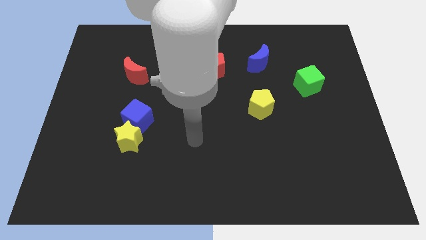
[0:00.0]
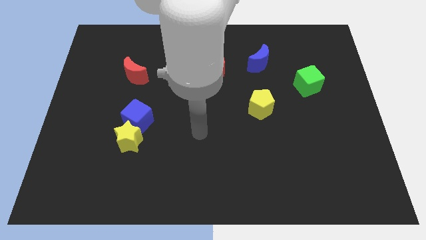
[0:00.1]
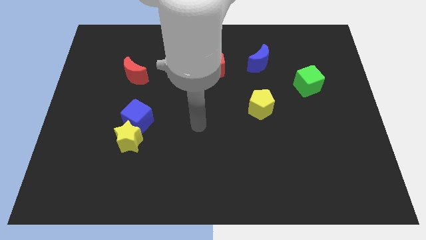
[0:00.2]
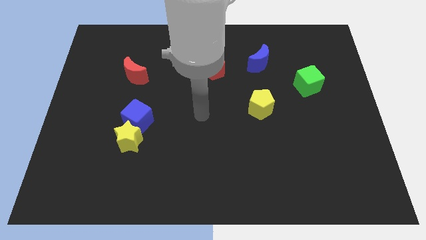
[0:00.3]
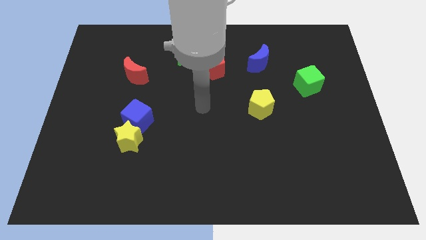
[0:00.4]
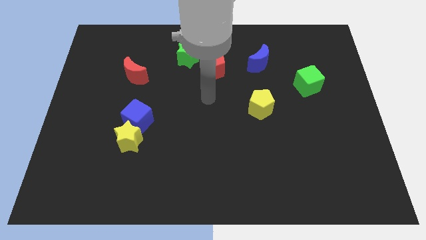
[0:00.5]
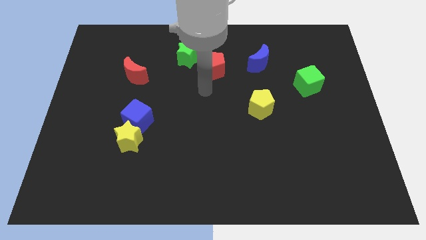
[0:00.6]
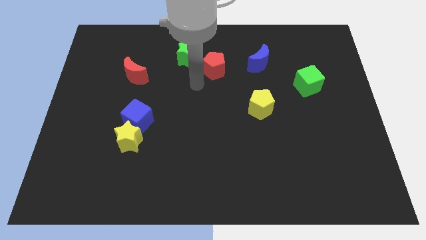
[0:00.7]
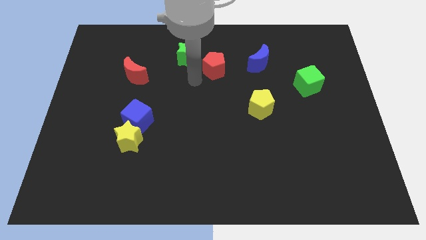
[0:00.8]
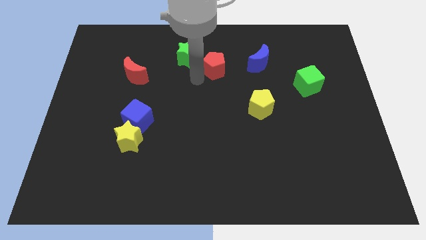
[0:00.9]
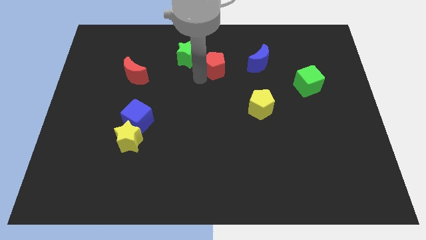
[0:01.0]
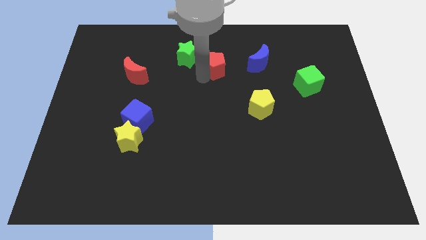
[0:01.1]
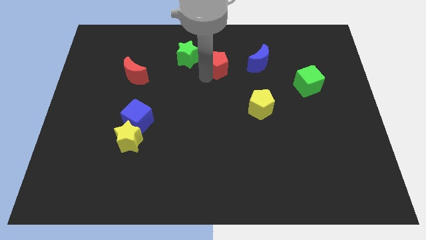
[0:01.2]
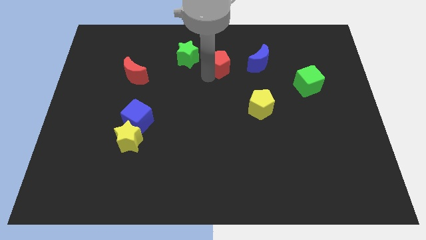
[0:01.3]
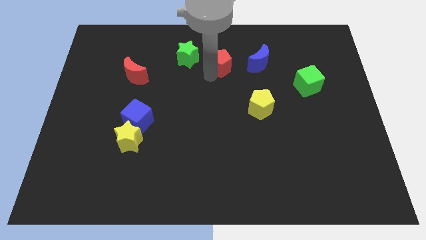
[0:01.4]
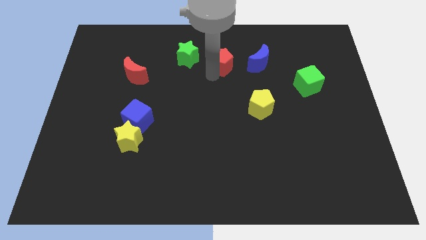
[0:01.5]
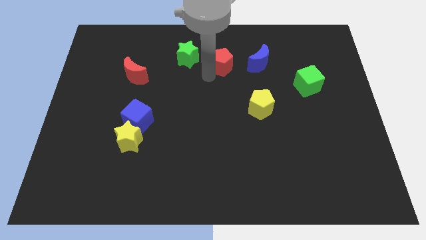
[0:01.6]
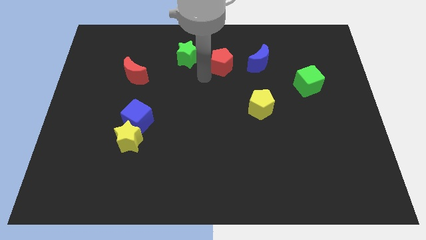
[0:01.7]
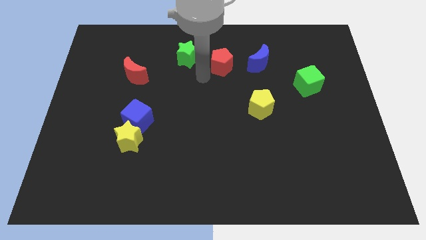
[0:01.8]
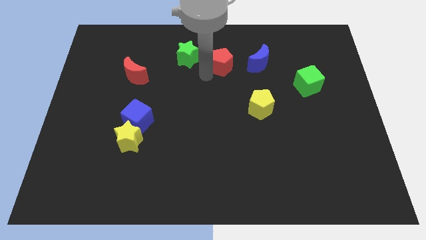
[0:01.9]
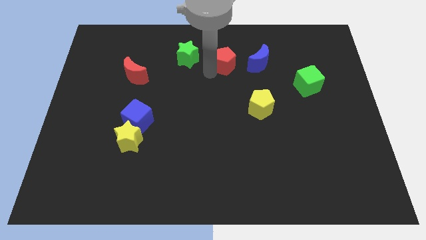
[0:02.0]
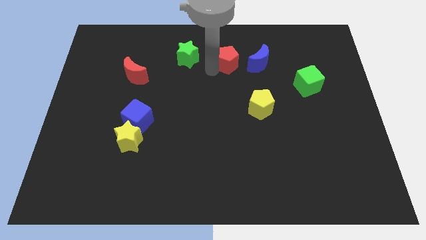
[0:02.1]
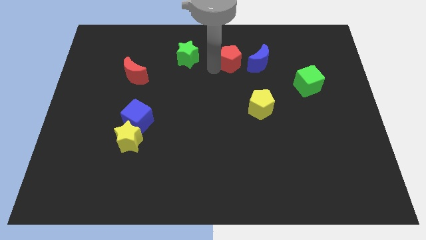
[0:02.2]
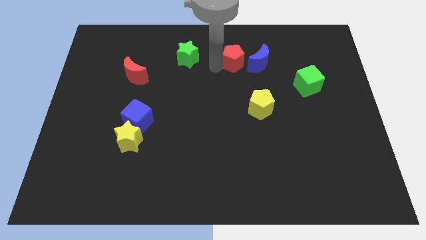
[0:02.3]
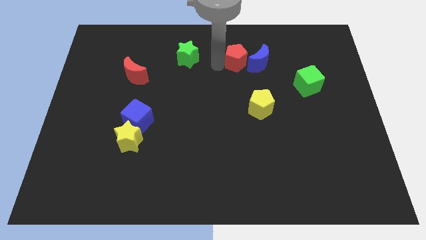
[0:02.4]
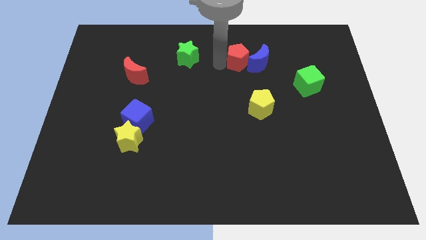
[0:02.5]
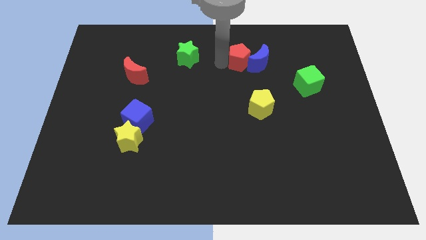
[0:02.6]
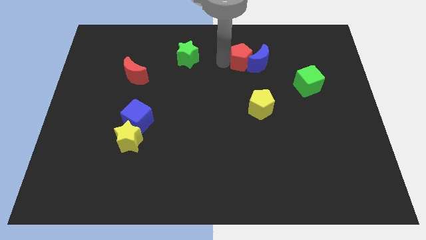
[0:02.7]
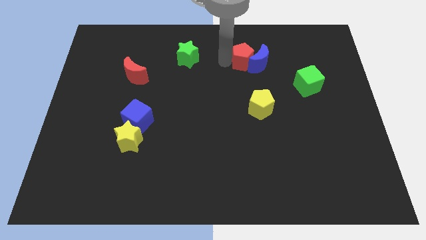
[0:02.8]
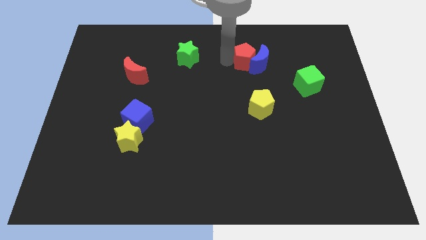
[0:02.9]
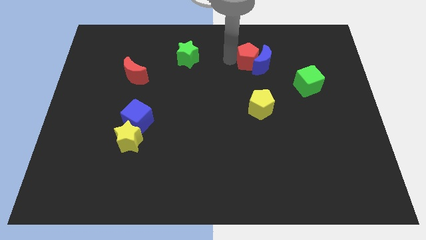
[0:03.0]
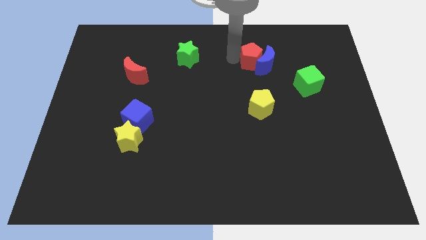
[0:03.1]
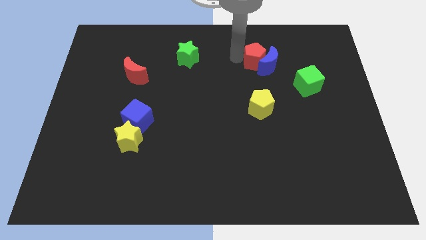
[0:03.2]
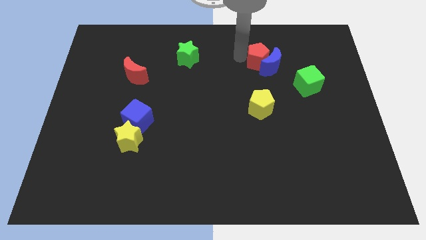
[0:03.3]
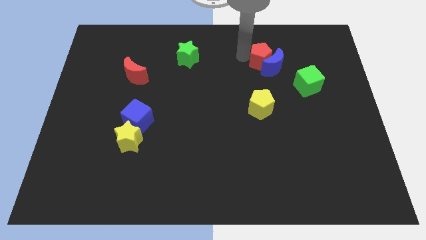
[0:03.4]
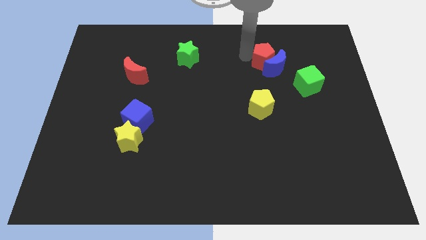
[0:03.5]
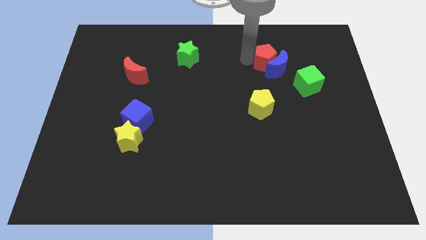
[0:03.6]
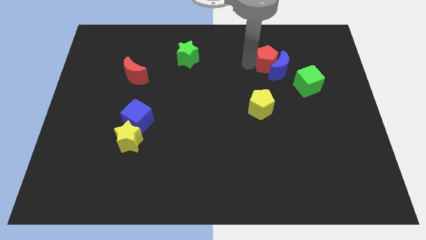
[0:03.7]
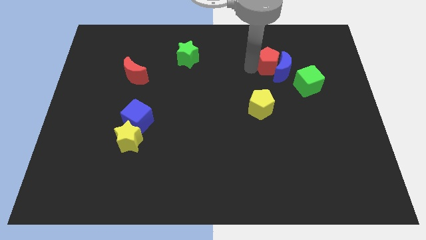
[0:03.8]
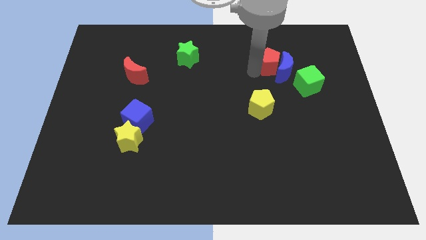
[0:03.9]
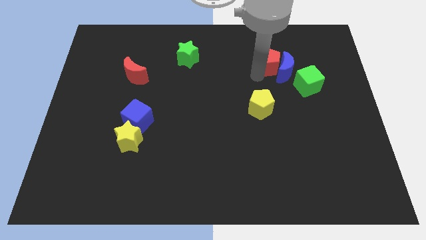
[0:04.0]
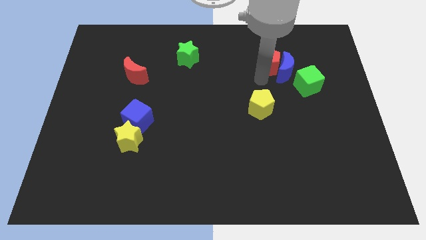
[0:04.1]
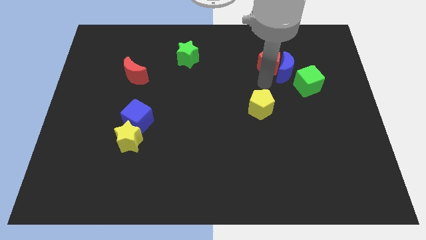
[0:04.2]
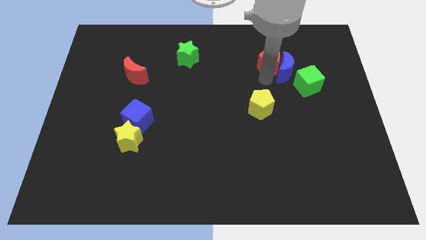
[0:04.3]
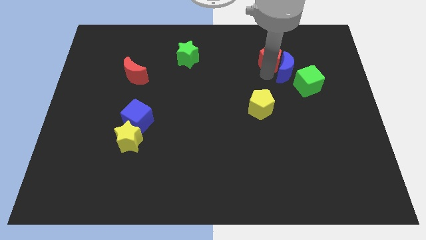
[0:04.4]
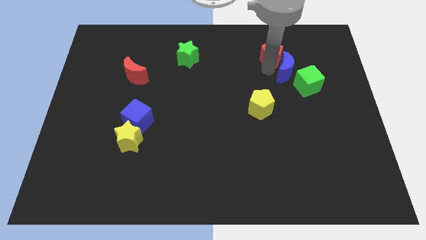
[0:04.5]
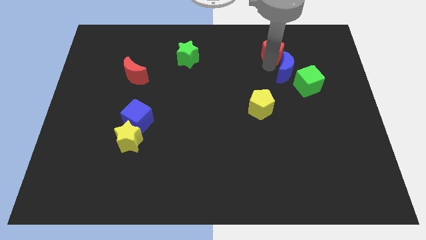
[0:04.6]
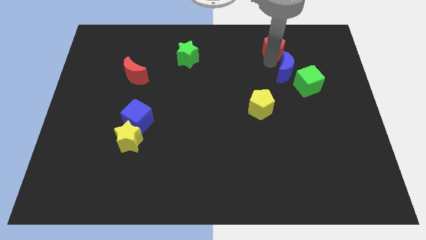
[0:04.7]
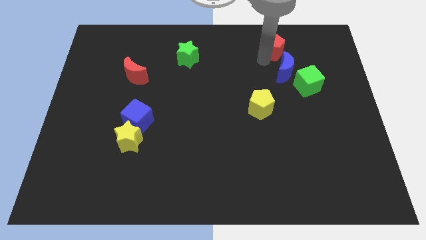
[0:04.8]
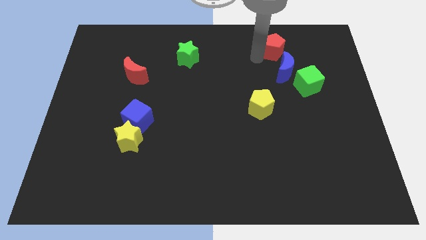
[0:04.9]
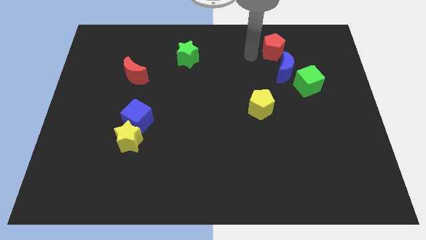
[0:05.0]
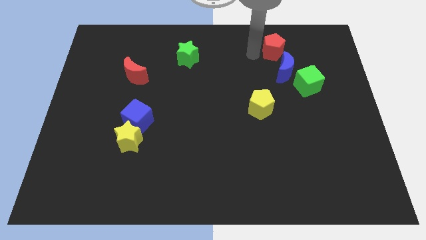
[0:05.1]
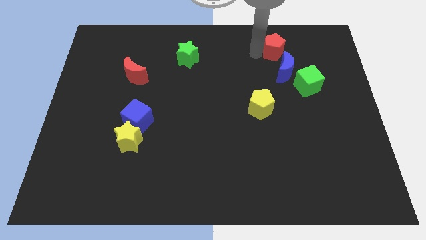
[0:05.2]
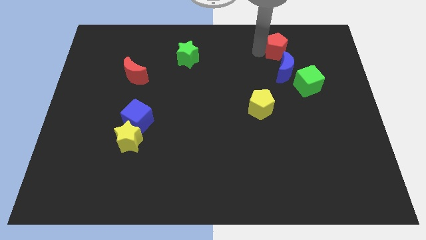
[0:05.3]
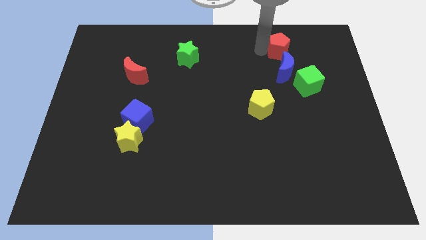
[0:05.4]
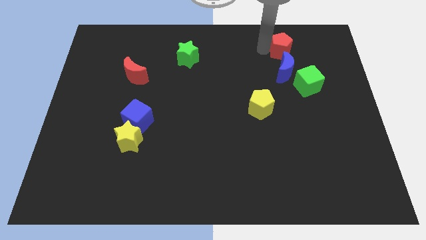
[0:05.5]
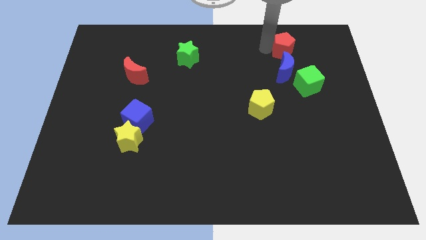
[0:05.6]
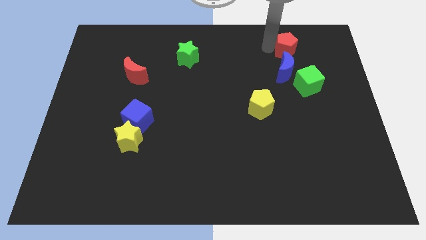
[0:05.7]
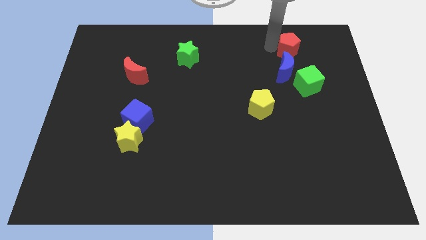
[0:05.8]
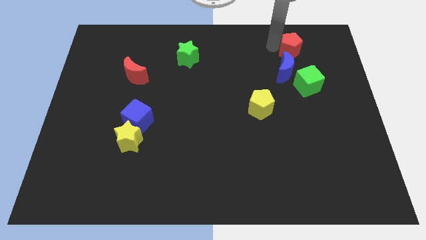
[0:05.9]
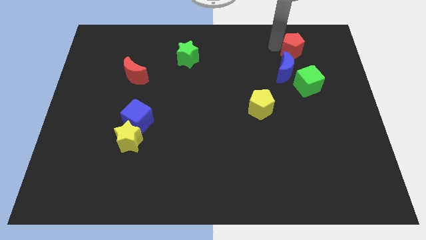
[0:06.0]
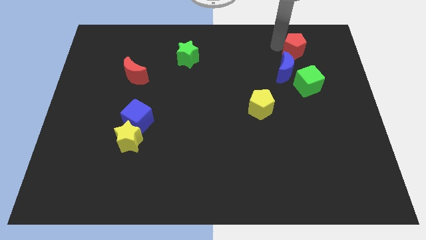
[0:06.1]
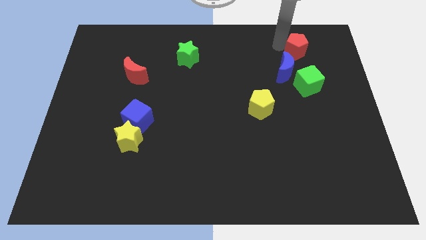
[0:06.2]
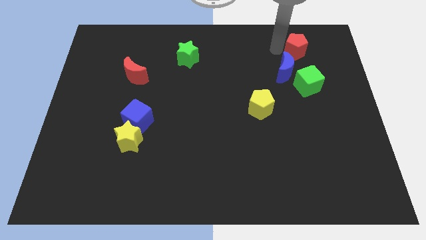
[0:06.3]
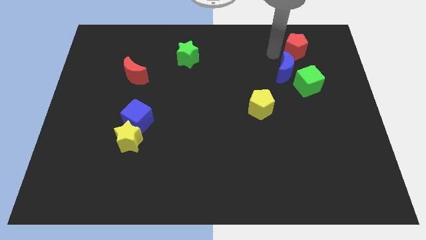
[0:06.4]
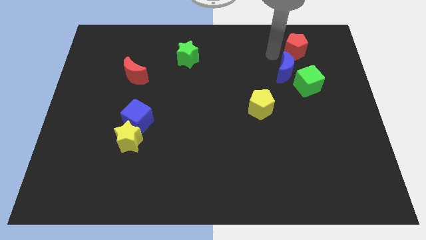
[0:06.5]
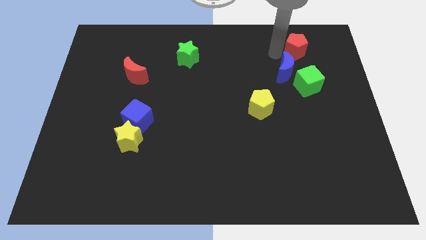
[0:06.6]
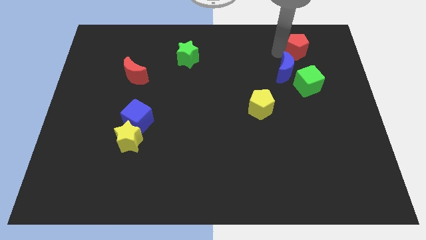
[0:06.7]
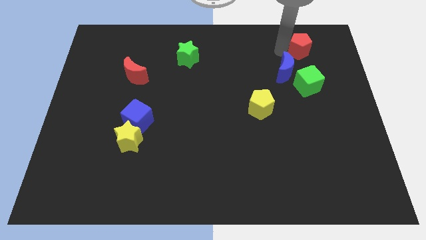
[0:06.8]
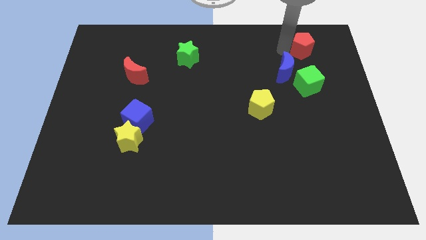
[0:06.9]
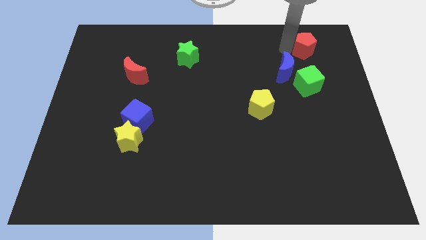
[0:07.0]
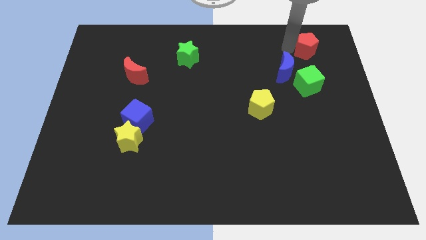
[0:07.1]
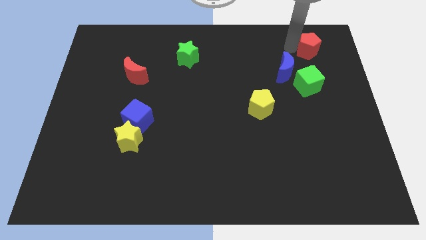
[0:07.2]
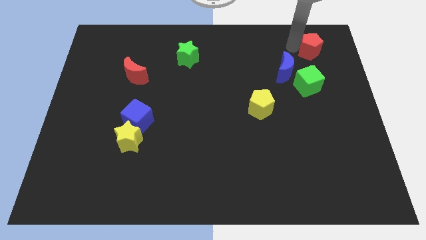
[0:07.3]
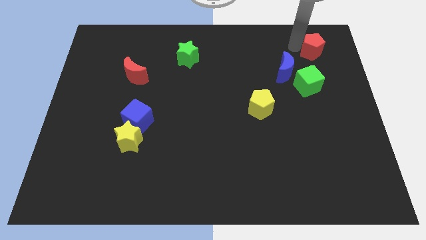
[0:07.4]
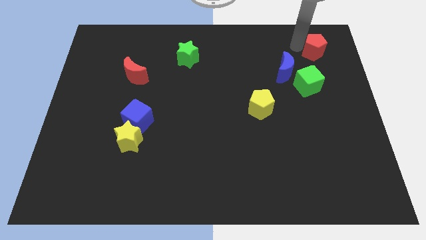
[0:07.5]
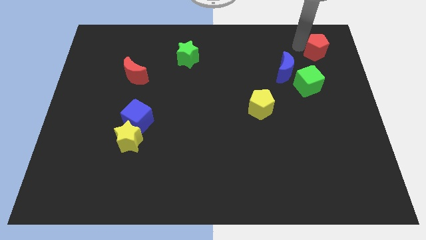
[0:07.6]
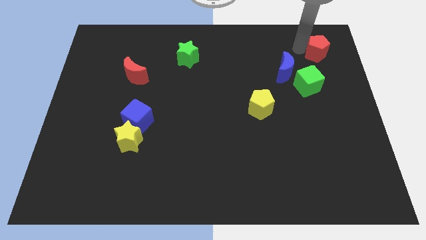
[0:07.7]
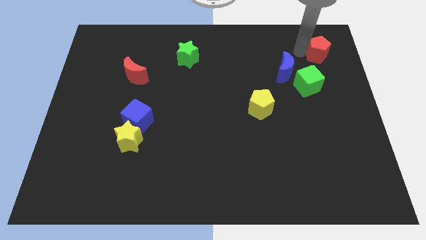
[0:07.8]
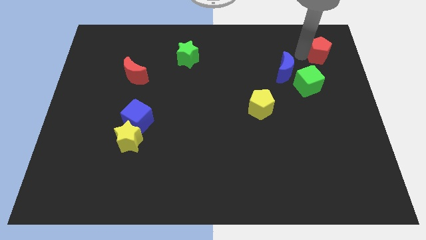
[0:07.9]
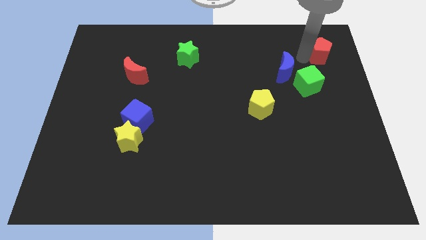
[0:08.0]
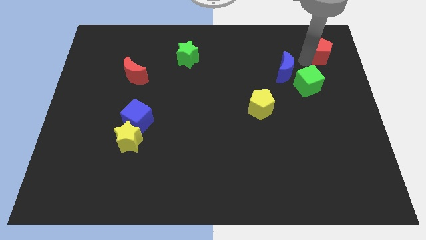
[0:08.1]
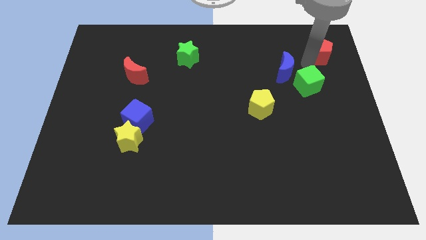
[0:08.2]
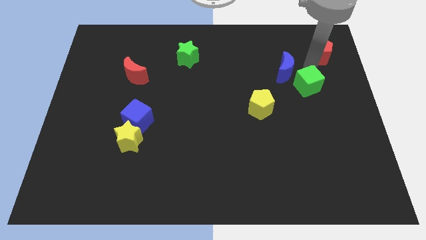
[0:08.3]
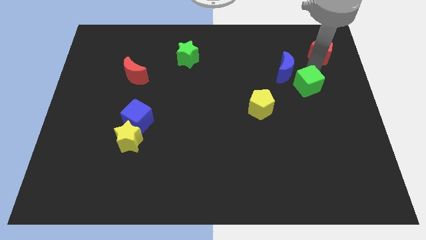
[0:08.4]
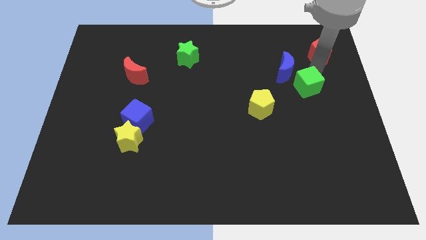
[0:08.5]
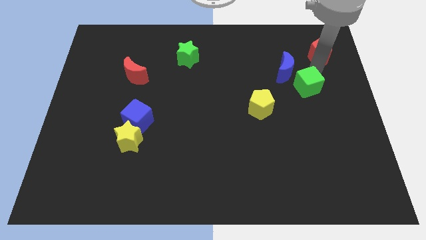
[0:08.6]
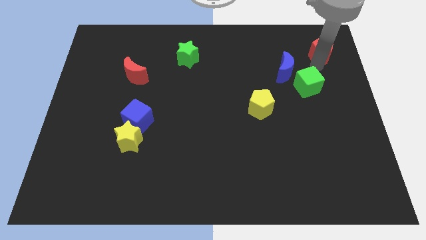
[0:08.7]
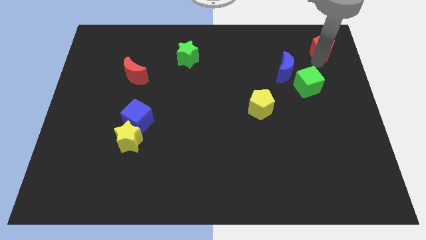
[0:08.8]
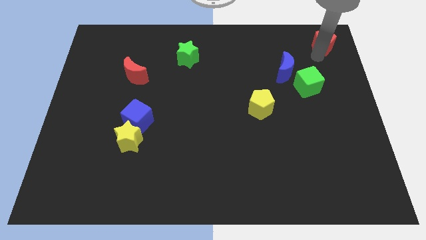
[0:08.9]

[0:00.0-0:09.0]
slide the red pentagon to the top right corner
